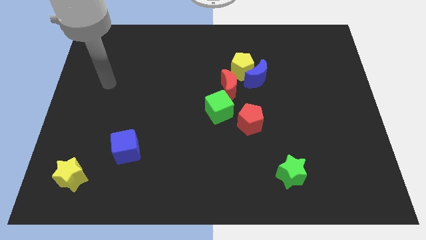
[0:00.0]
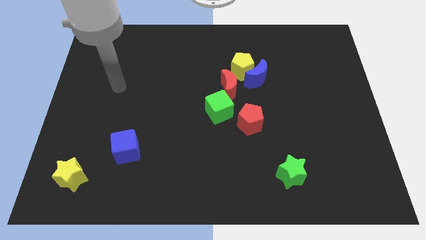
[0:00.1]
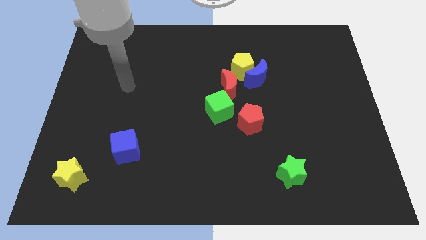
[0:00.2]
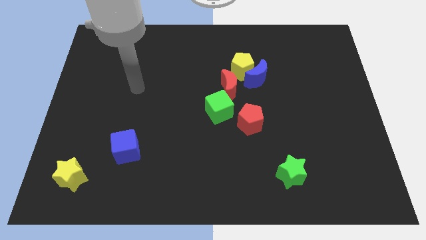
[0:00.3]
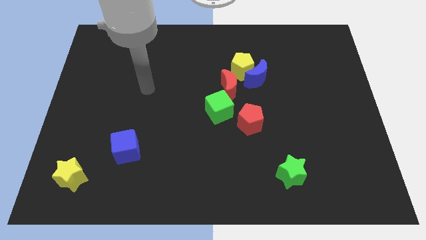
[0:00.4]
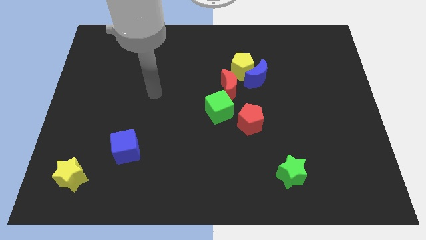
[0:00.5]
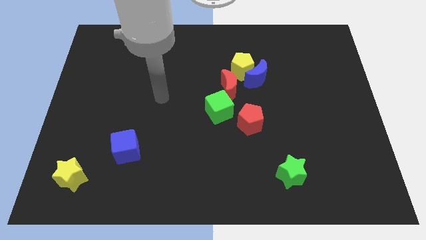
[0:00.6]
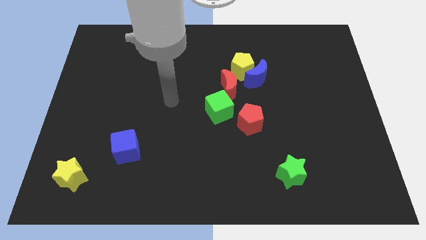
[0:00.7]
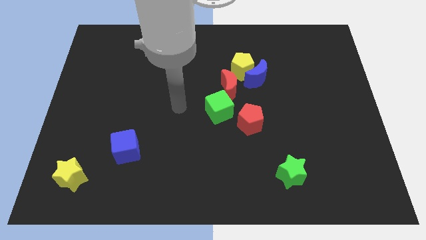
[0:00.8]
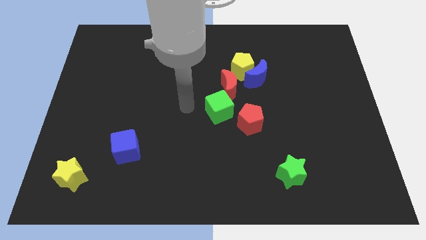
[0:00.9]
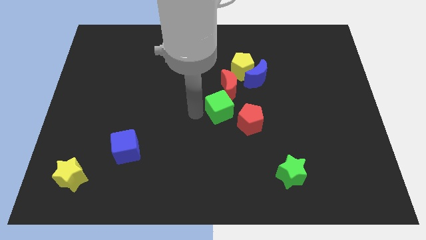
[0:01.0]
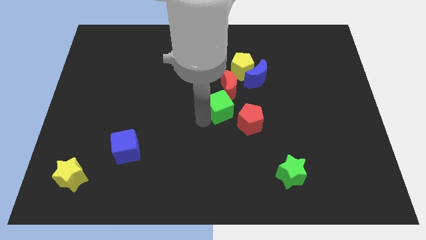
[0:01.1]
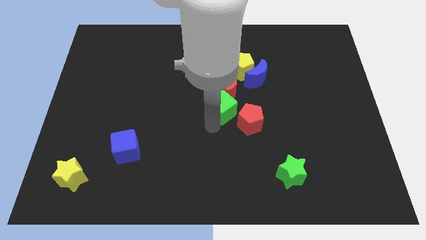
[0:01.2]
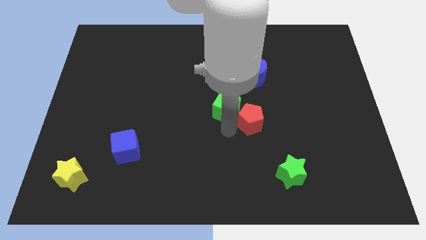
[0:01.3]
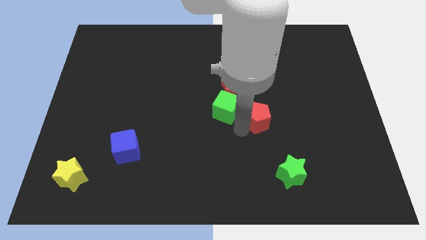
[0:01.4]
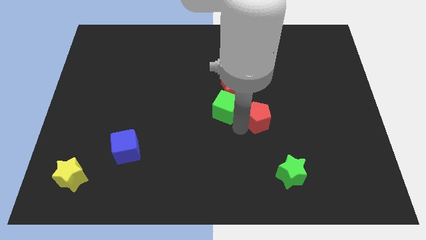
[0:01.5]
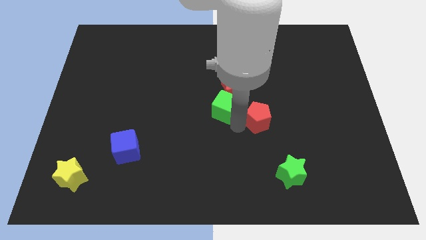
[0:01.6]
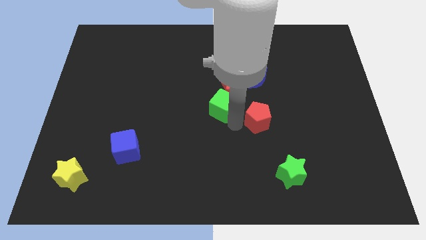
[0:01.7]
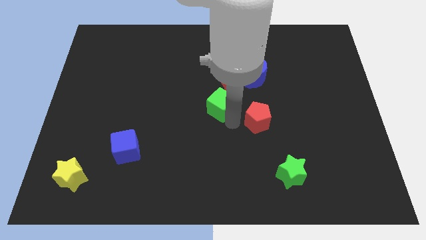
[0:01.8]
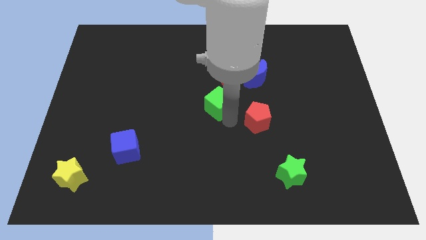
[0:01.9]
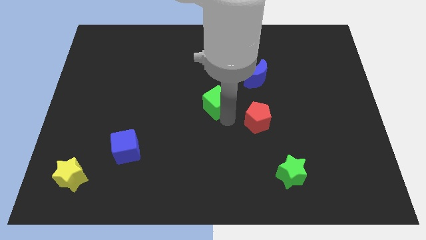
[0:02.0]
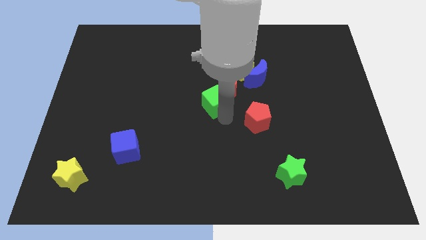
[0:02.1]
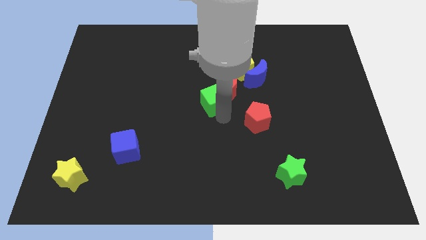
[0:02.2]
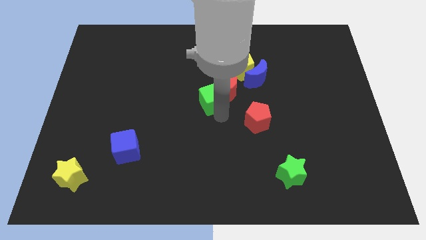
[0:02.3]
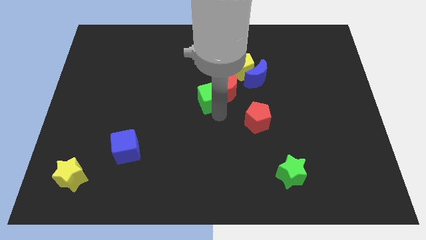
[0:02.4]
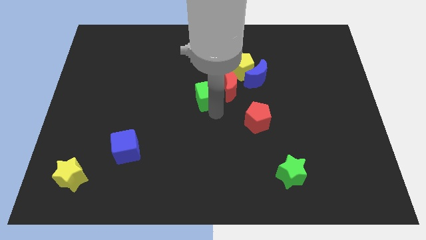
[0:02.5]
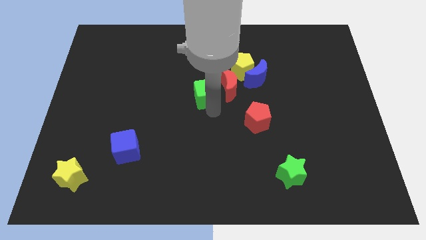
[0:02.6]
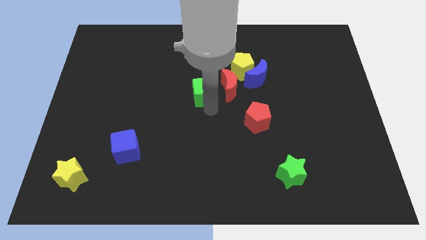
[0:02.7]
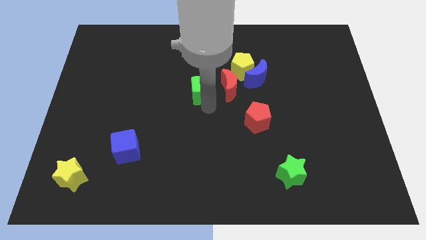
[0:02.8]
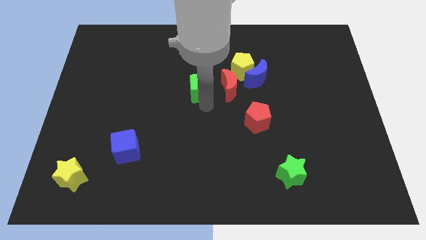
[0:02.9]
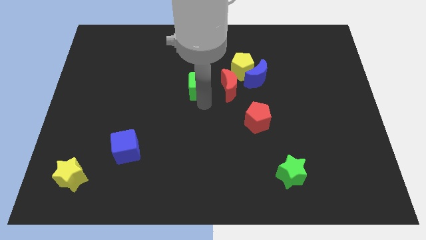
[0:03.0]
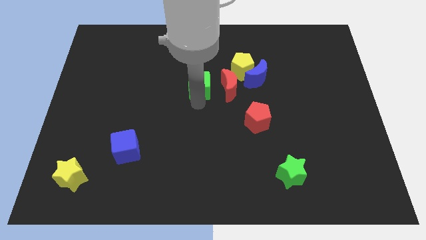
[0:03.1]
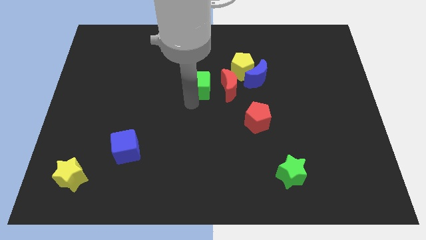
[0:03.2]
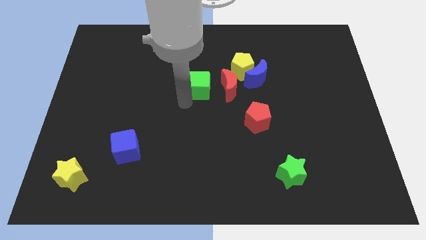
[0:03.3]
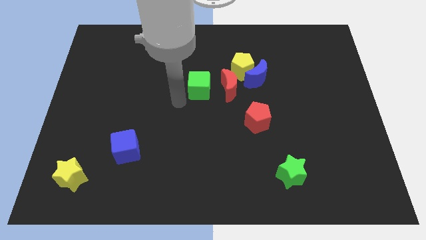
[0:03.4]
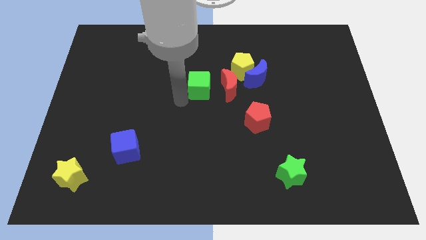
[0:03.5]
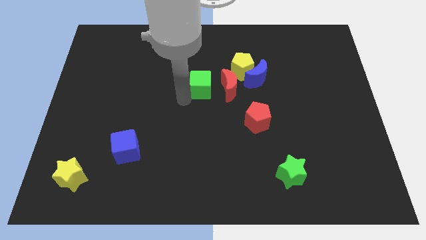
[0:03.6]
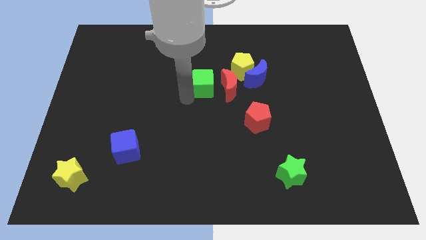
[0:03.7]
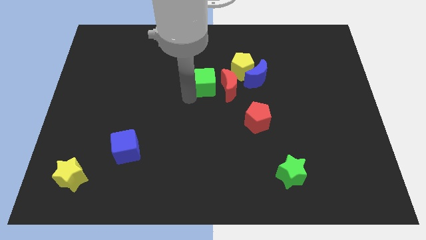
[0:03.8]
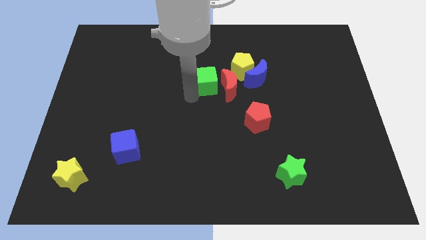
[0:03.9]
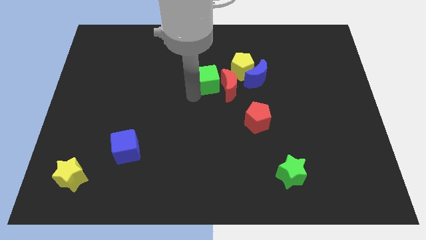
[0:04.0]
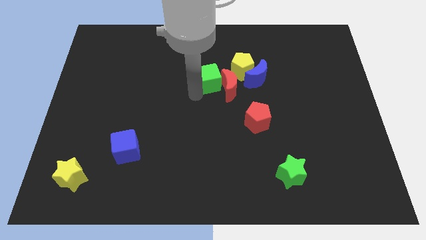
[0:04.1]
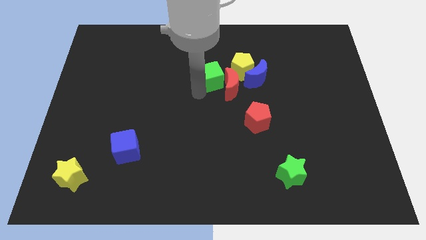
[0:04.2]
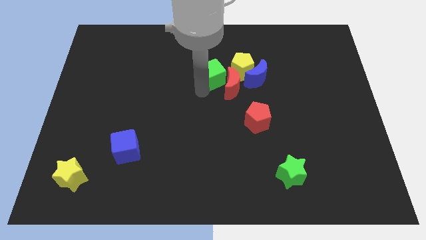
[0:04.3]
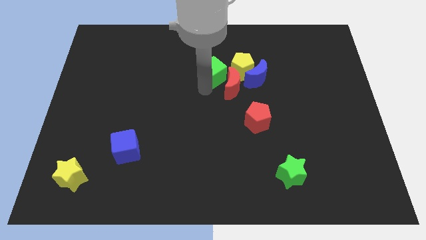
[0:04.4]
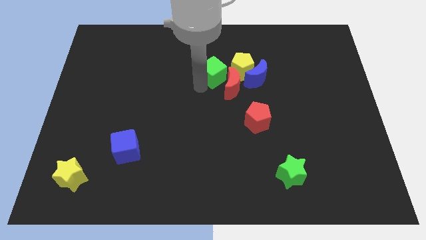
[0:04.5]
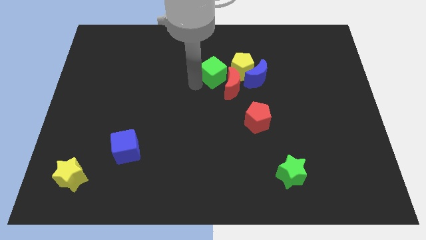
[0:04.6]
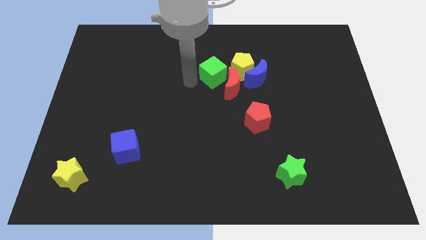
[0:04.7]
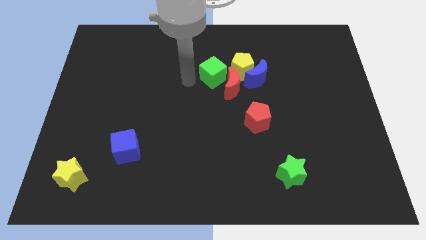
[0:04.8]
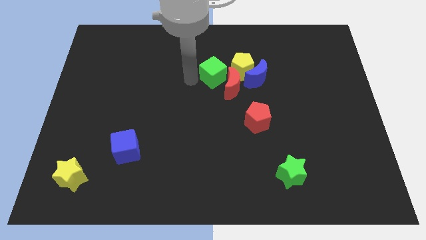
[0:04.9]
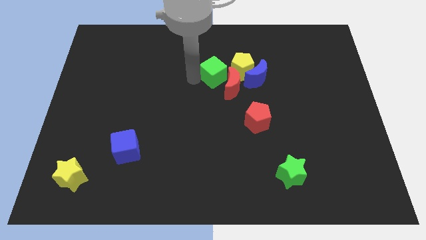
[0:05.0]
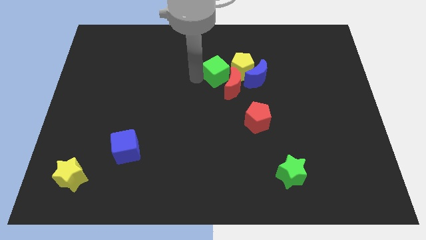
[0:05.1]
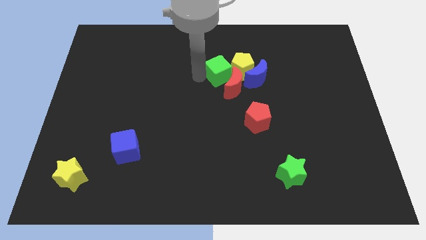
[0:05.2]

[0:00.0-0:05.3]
put the green cube to the yellow pentagon
